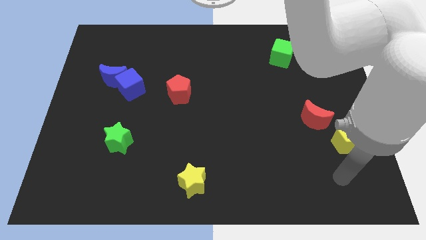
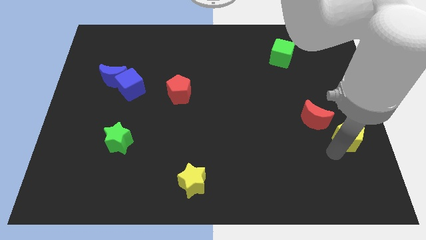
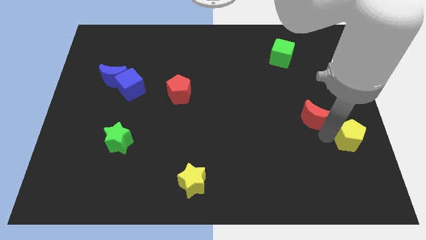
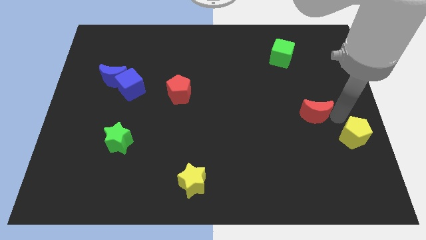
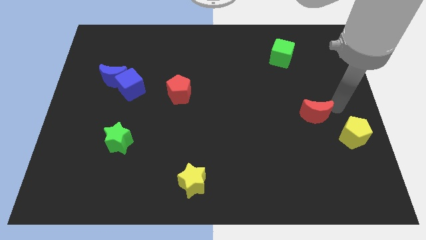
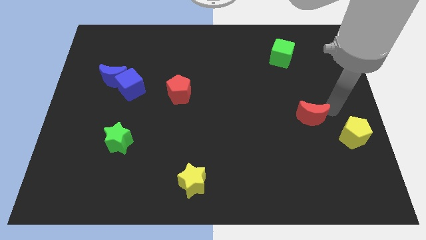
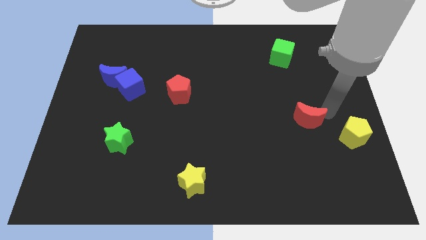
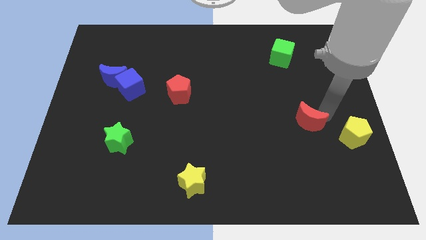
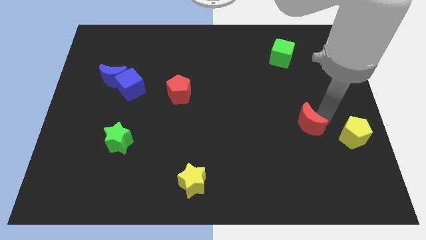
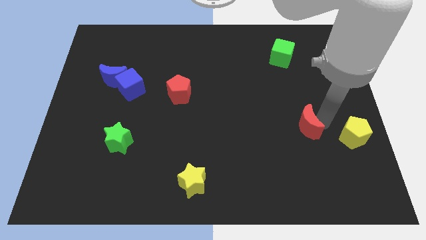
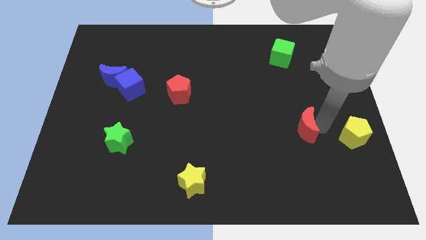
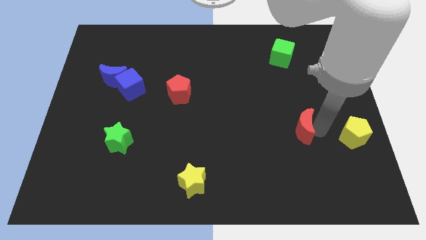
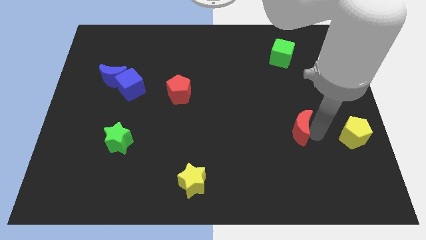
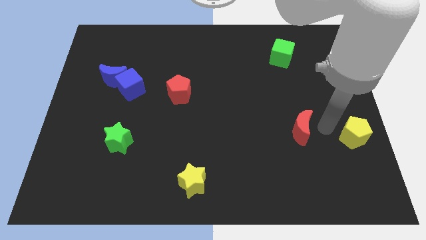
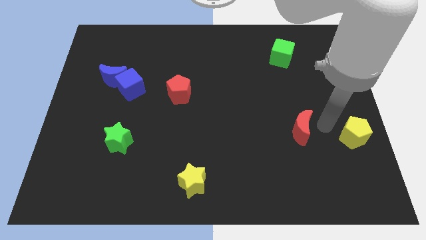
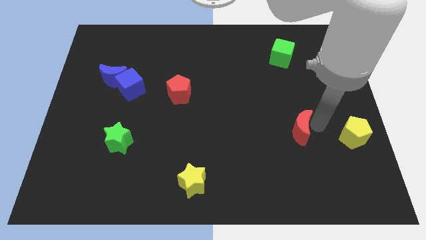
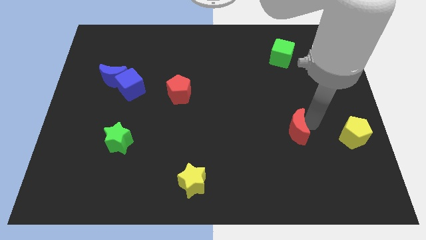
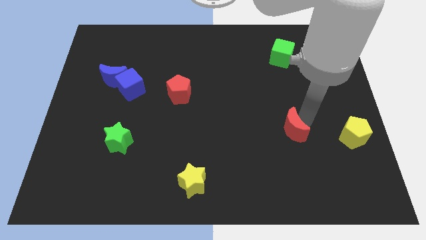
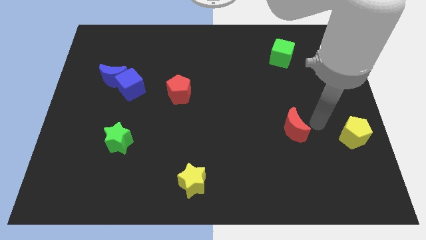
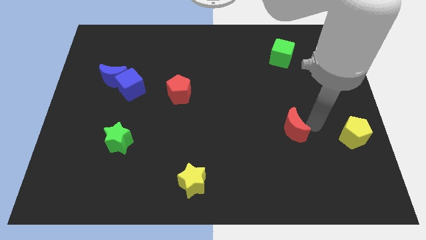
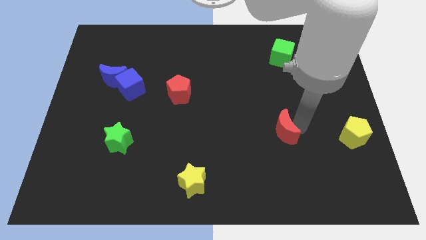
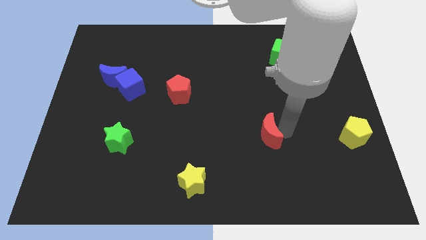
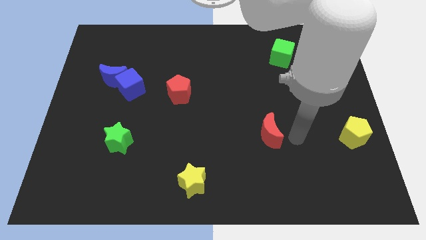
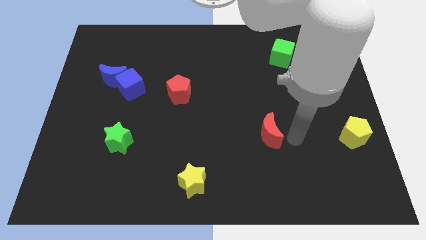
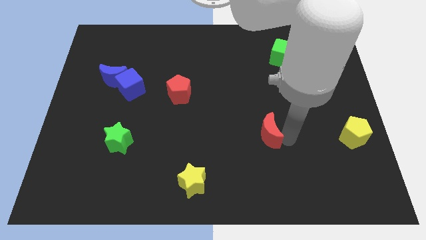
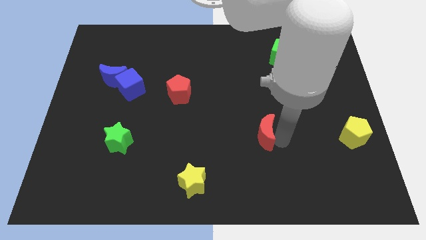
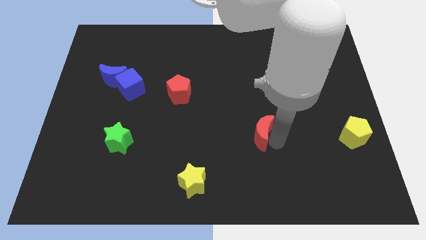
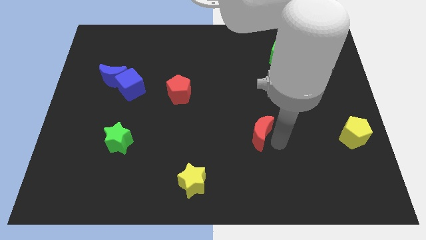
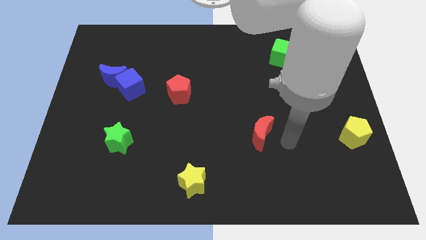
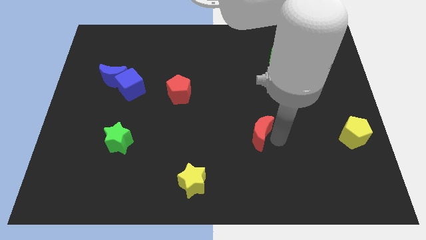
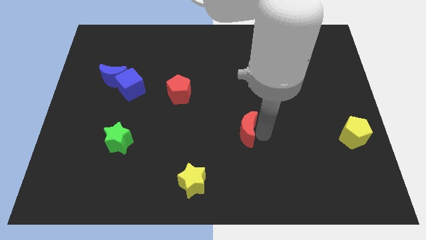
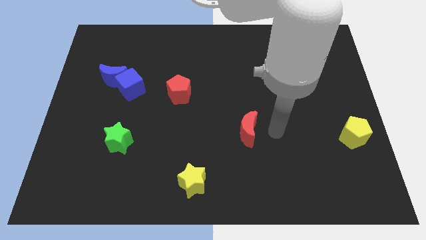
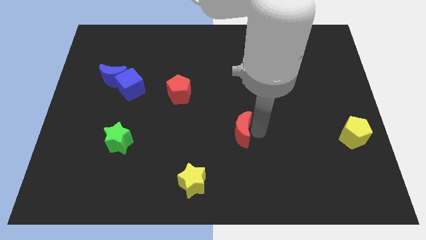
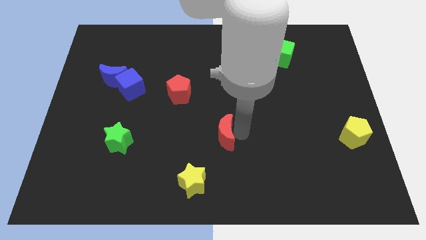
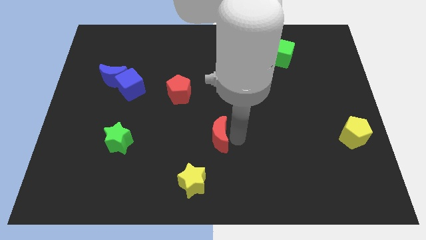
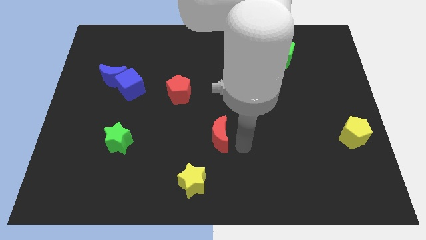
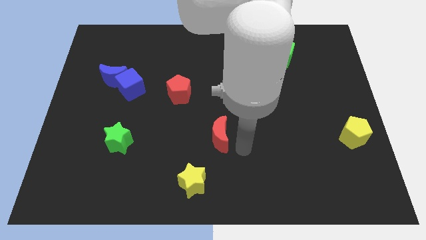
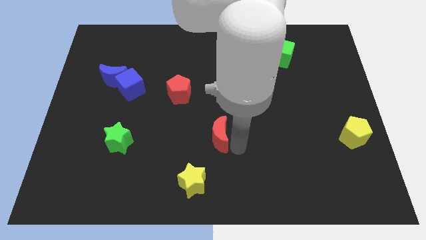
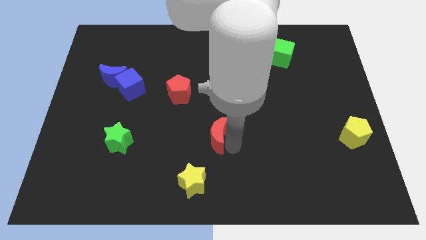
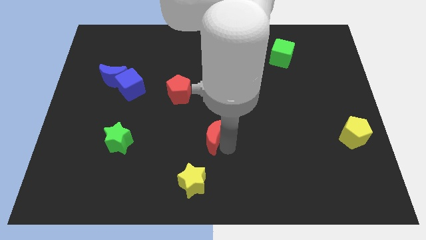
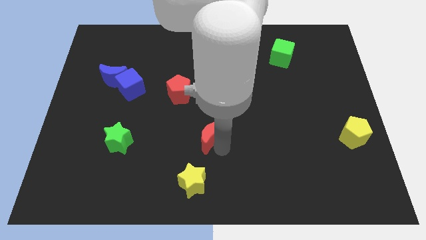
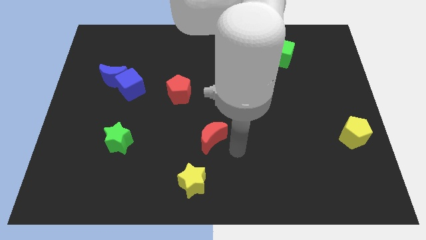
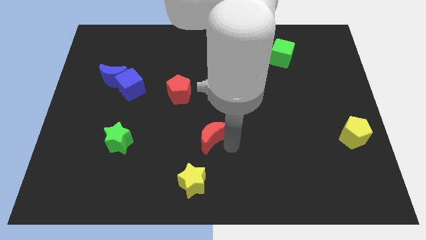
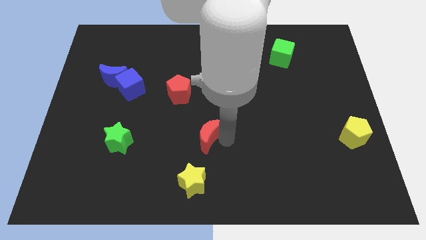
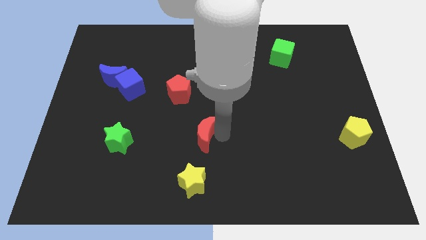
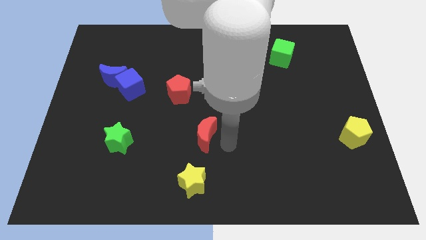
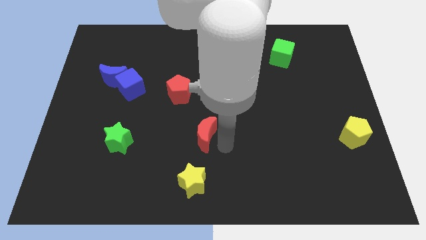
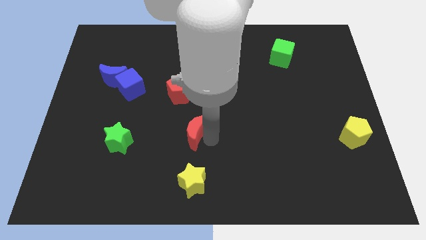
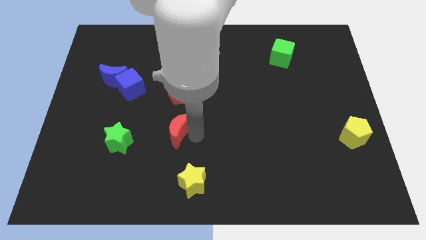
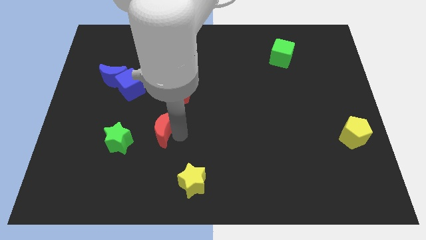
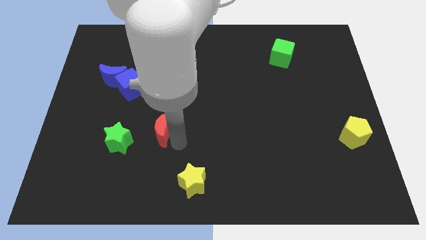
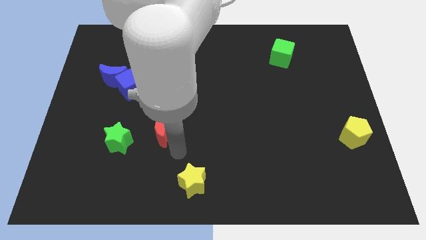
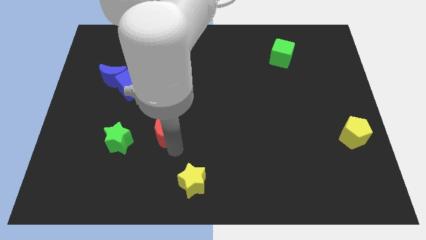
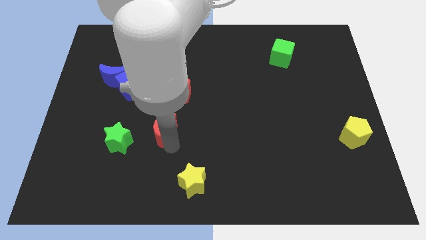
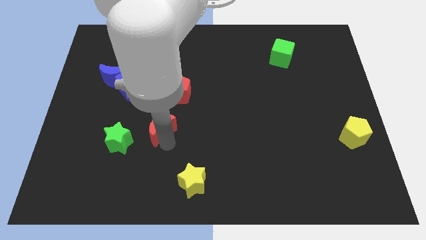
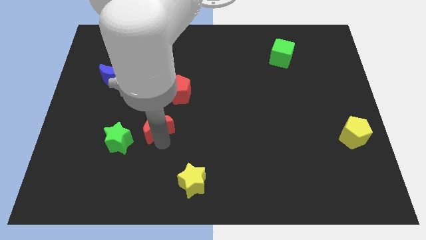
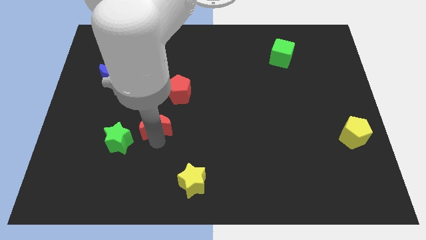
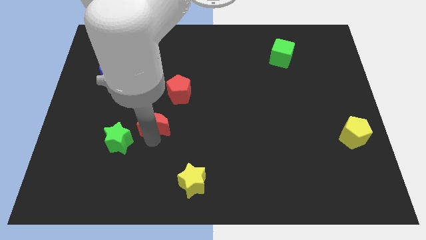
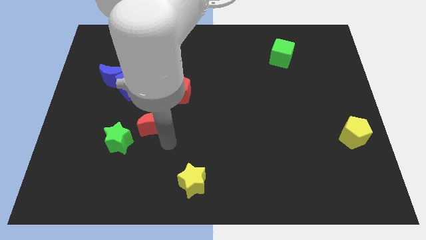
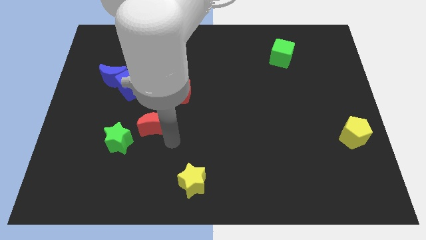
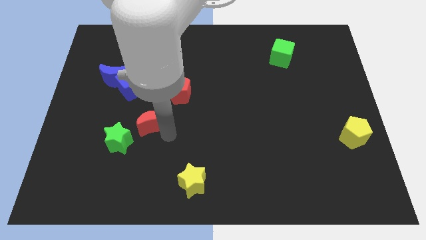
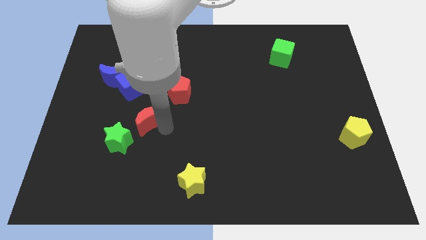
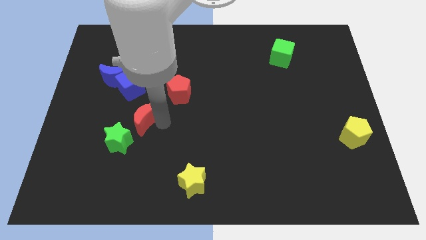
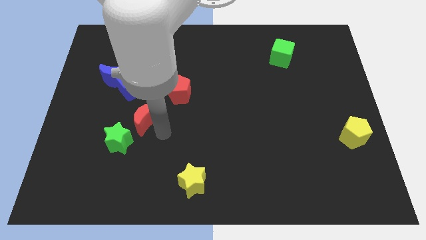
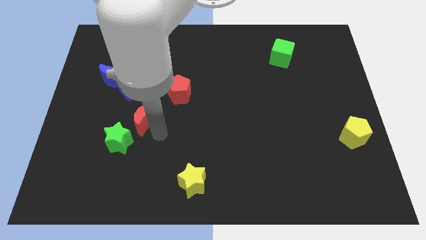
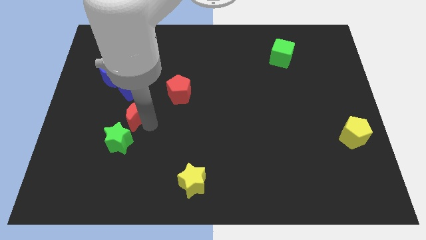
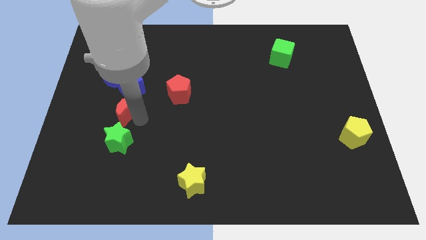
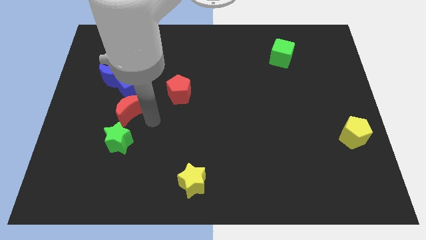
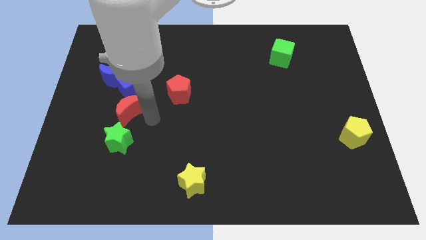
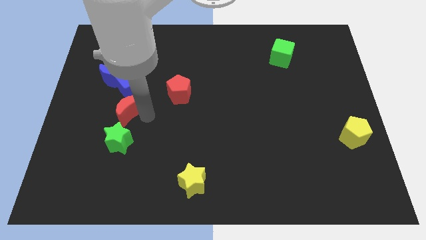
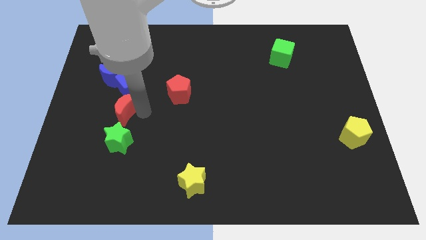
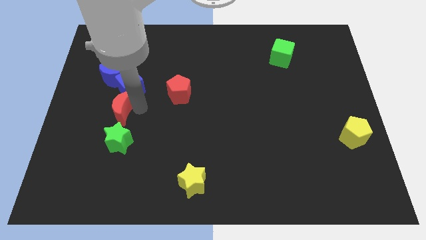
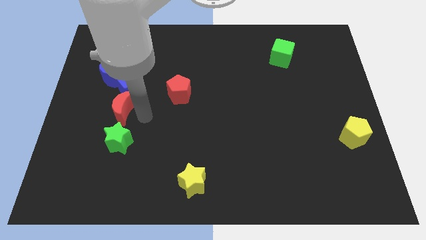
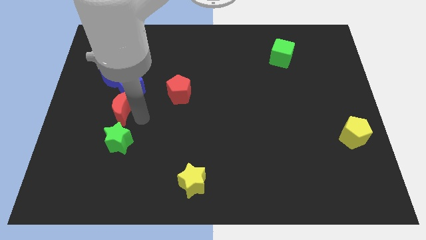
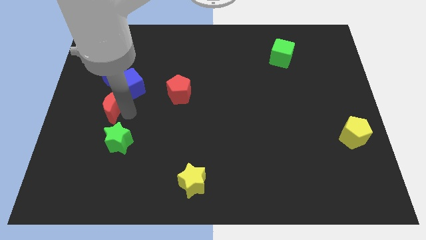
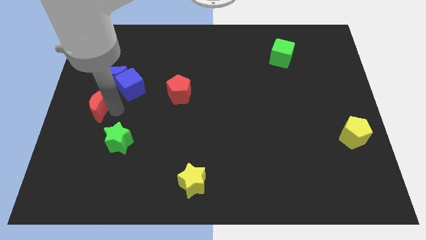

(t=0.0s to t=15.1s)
slide the red moon to the center left
